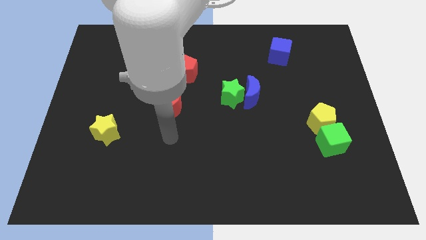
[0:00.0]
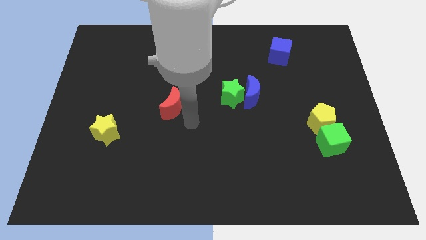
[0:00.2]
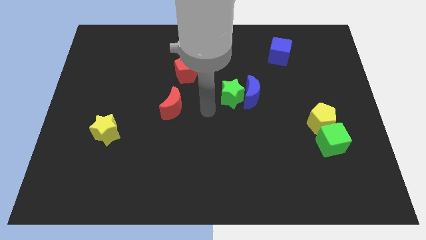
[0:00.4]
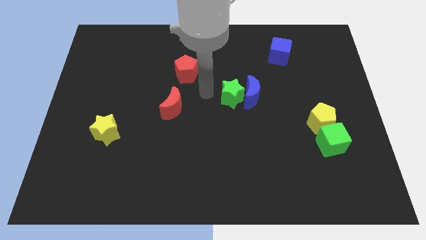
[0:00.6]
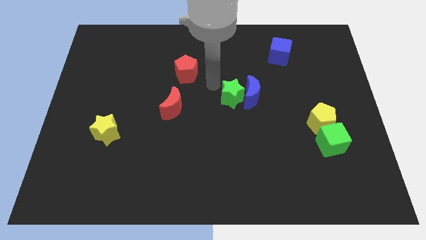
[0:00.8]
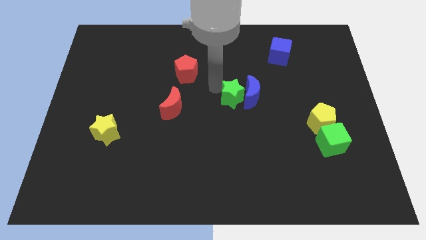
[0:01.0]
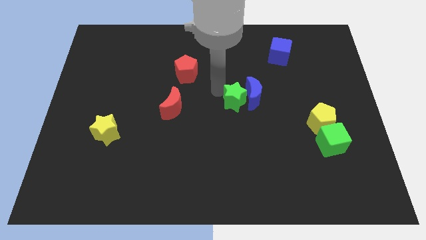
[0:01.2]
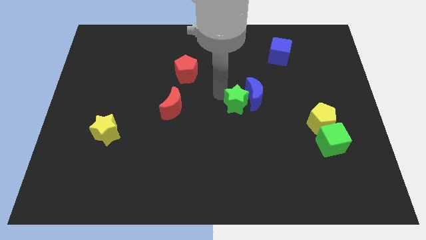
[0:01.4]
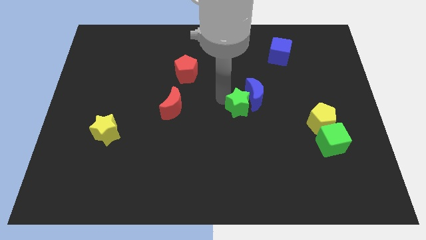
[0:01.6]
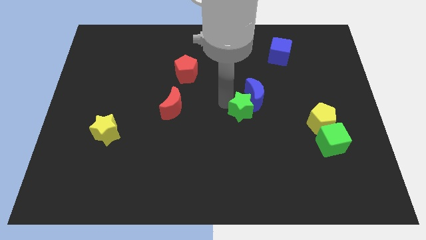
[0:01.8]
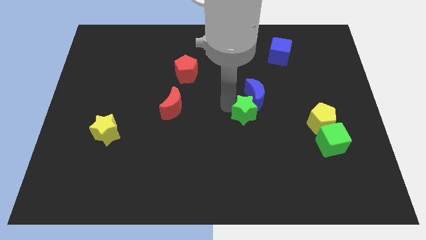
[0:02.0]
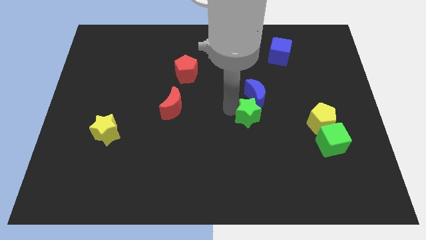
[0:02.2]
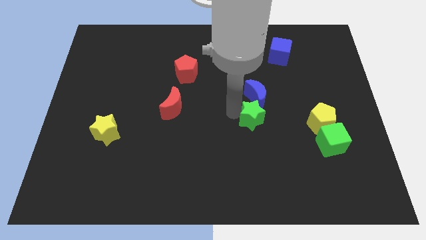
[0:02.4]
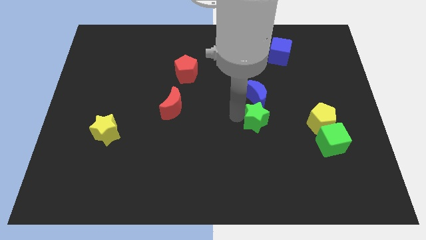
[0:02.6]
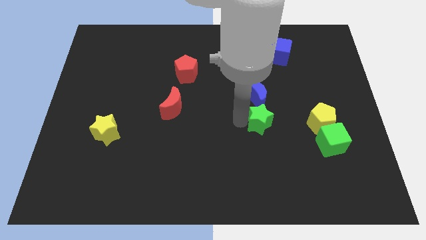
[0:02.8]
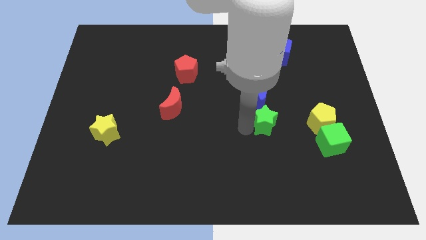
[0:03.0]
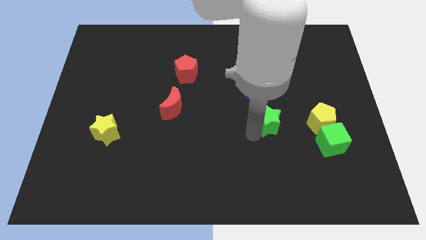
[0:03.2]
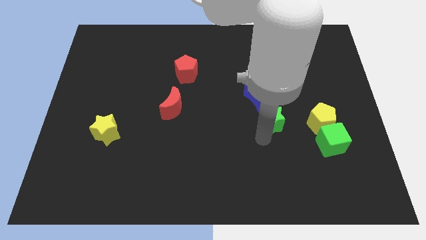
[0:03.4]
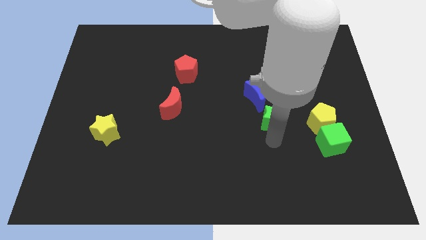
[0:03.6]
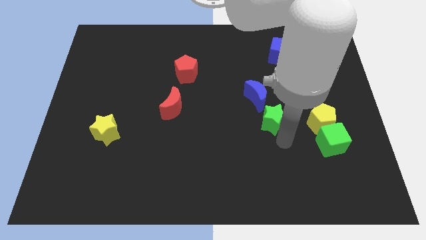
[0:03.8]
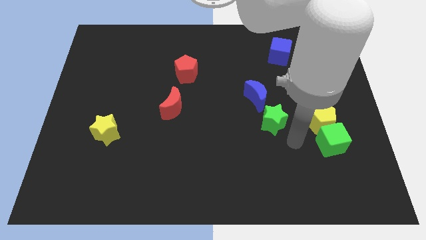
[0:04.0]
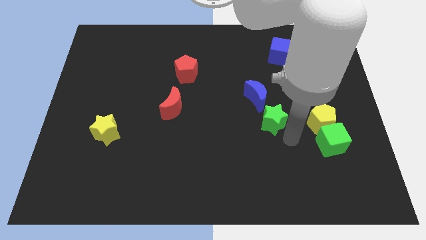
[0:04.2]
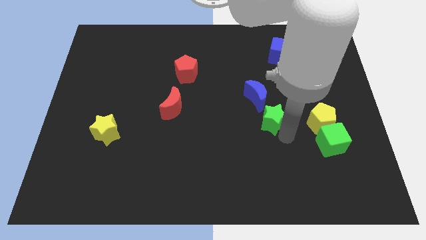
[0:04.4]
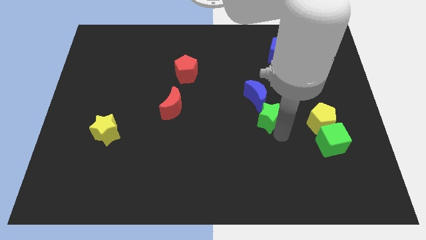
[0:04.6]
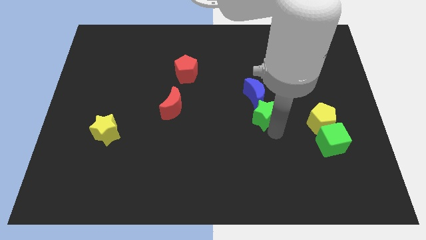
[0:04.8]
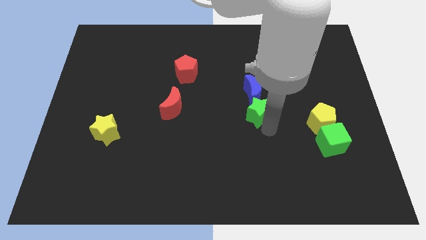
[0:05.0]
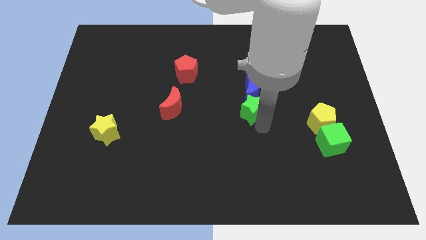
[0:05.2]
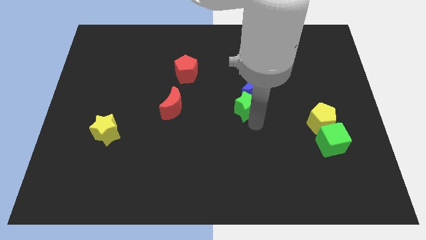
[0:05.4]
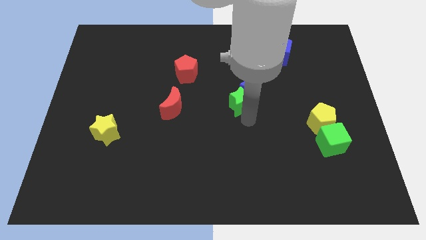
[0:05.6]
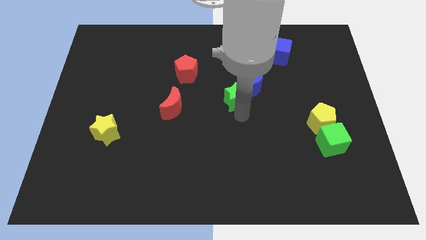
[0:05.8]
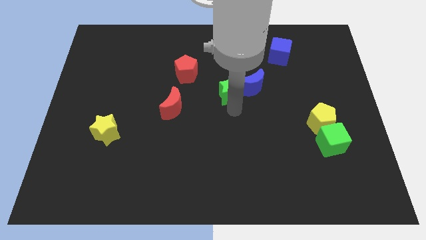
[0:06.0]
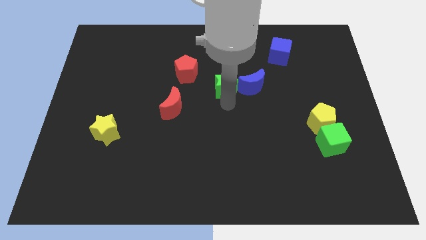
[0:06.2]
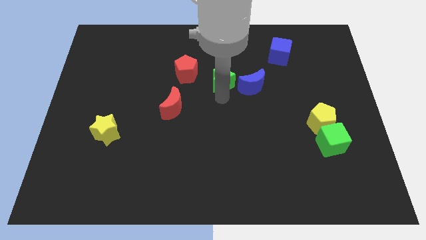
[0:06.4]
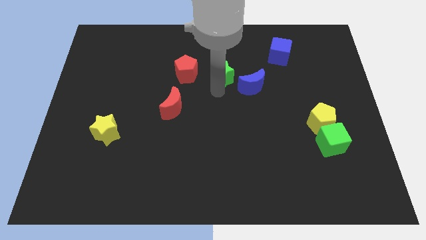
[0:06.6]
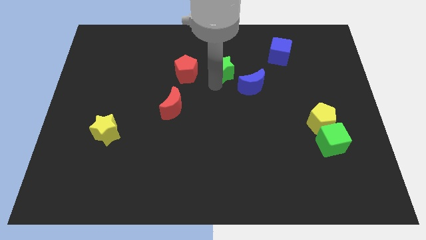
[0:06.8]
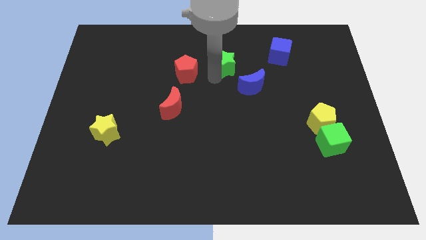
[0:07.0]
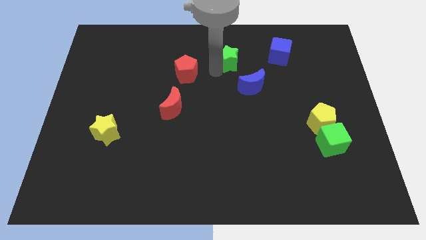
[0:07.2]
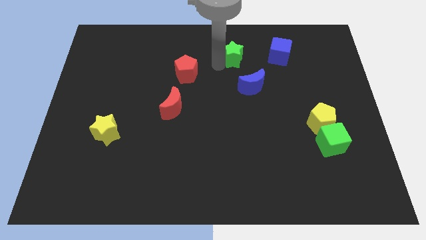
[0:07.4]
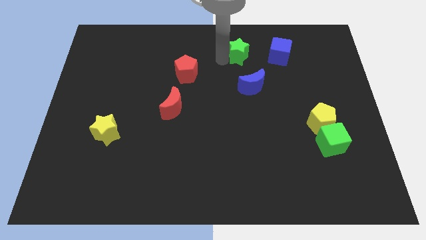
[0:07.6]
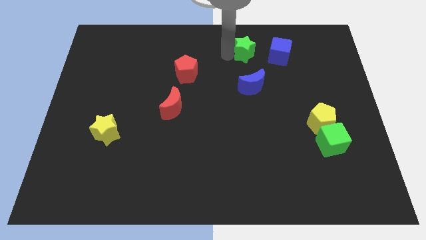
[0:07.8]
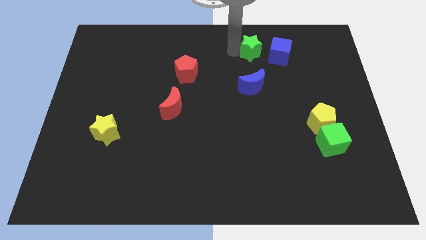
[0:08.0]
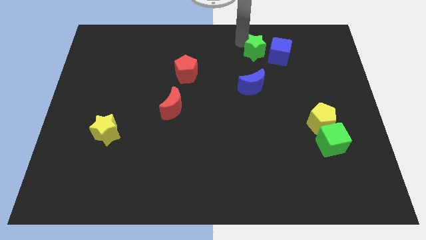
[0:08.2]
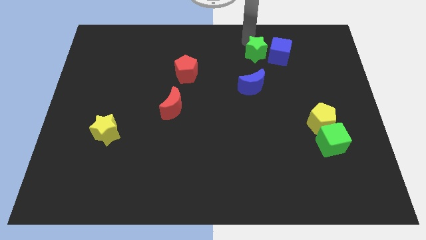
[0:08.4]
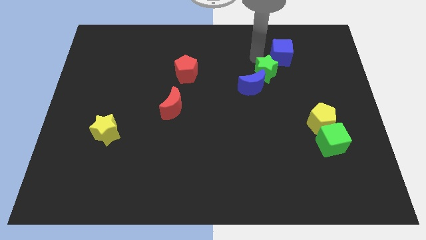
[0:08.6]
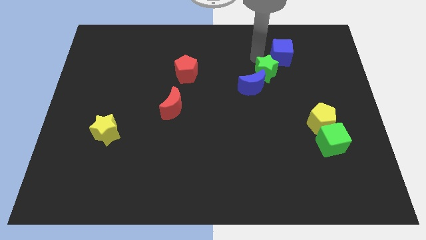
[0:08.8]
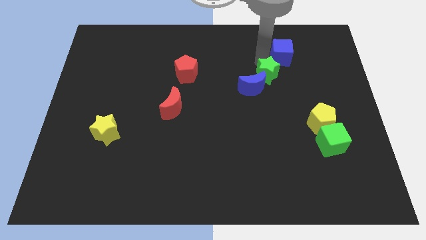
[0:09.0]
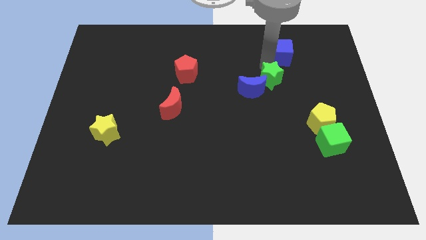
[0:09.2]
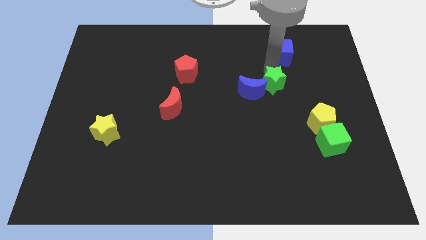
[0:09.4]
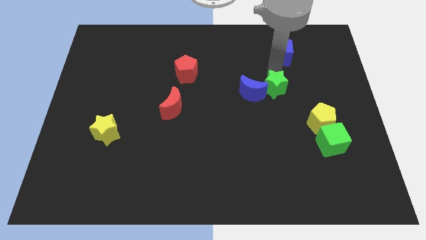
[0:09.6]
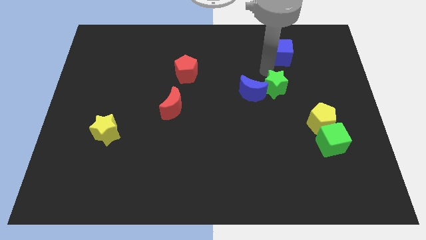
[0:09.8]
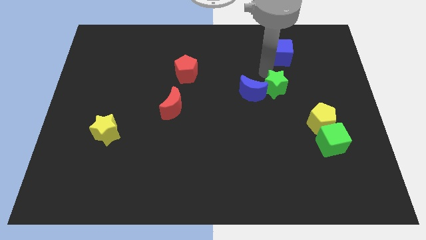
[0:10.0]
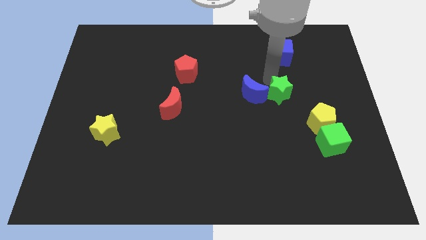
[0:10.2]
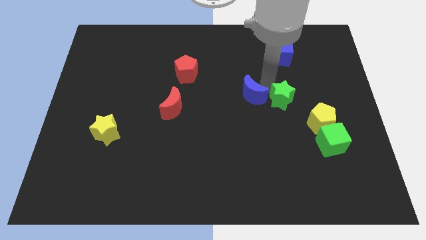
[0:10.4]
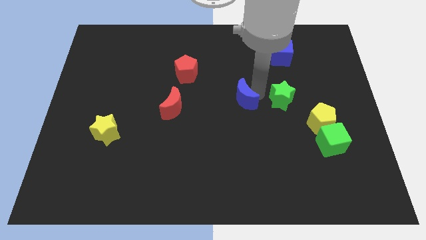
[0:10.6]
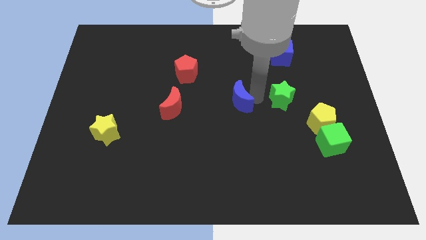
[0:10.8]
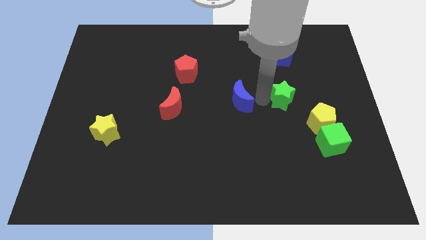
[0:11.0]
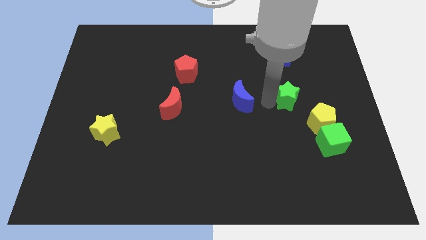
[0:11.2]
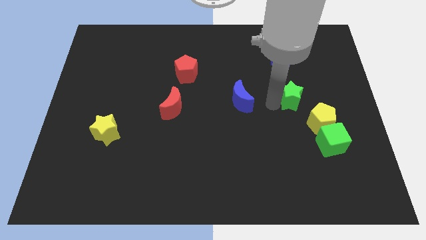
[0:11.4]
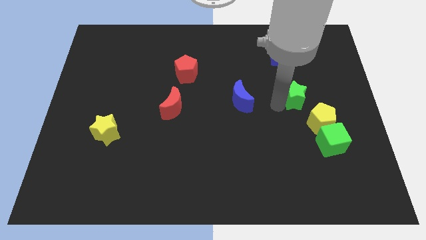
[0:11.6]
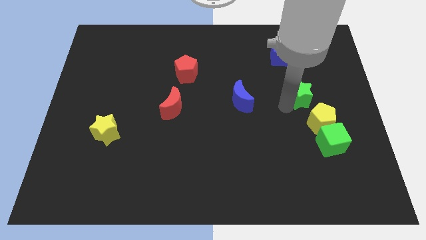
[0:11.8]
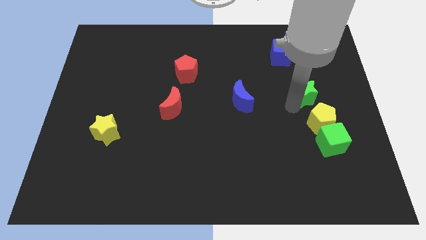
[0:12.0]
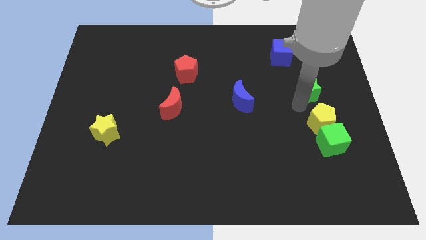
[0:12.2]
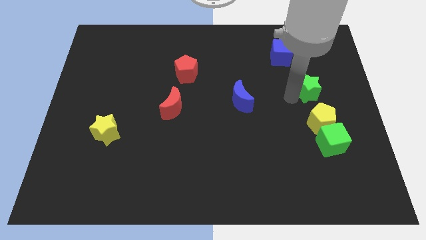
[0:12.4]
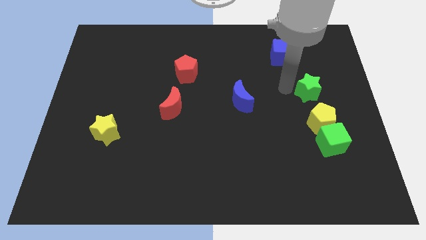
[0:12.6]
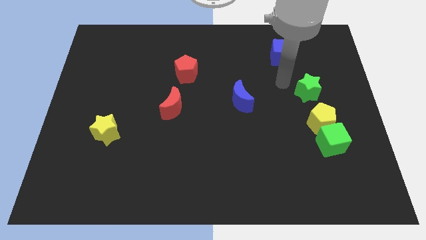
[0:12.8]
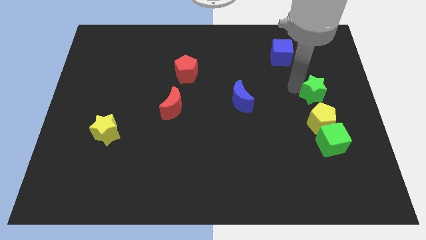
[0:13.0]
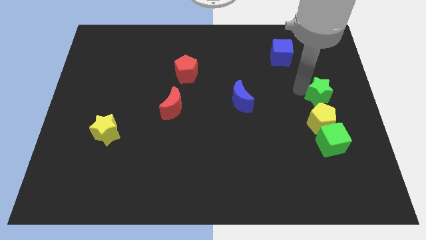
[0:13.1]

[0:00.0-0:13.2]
put the green star to the right side

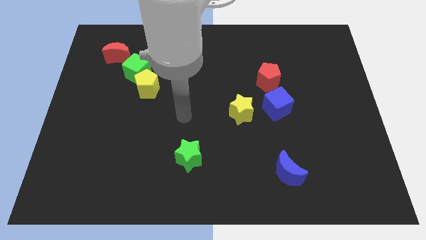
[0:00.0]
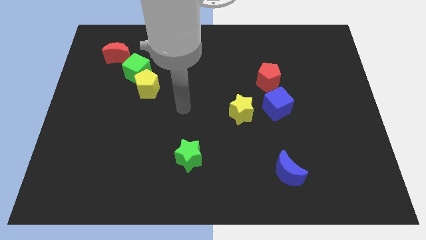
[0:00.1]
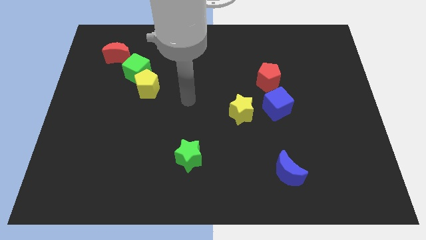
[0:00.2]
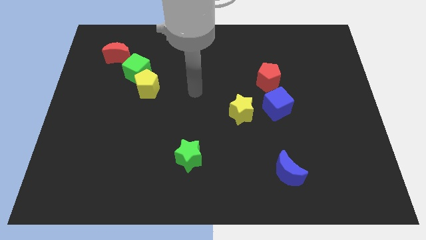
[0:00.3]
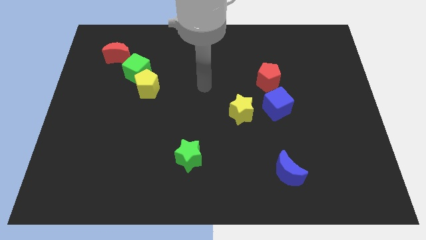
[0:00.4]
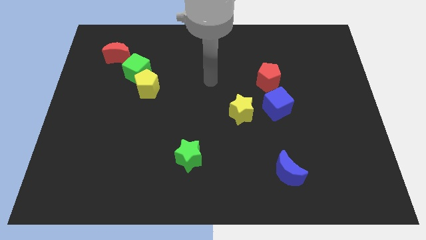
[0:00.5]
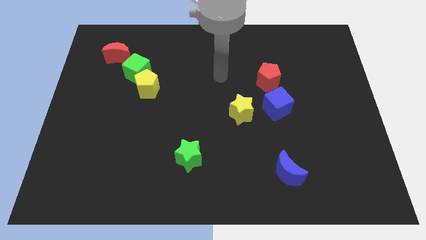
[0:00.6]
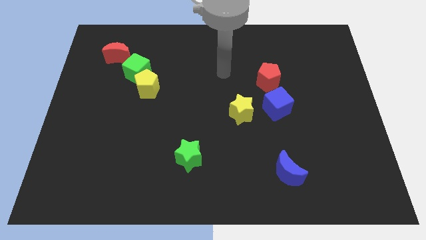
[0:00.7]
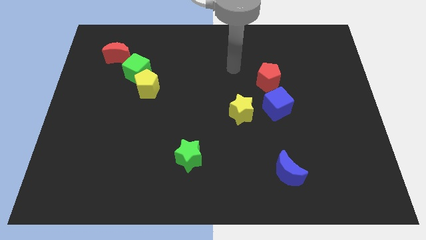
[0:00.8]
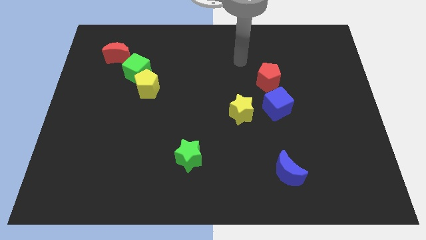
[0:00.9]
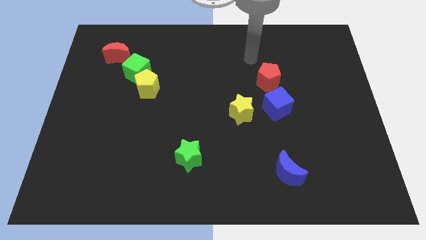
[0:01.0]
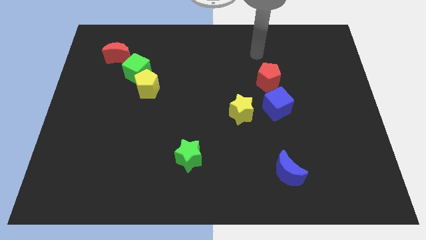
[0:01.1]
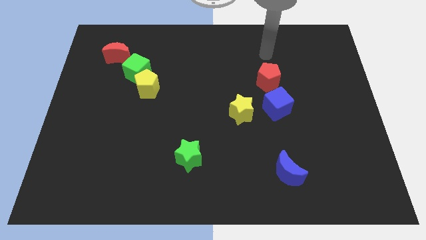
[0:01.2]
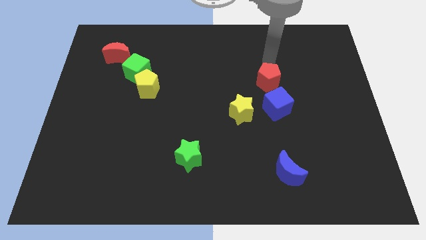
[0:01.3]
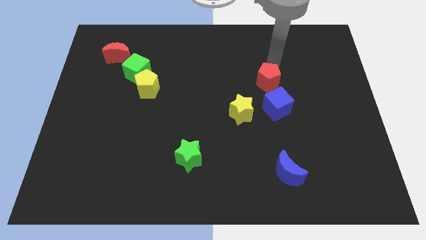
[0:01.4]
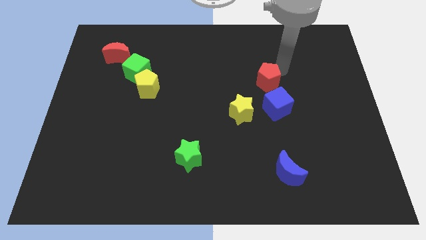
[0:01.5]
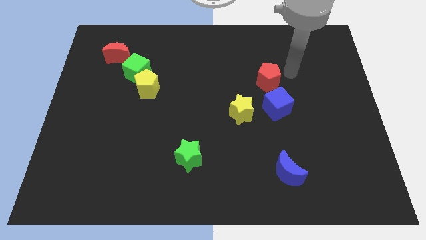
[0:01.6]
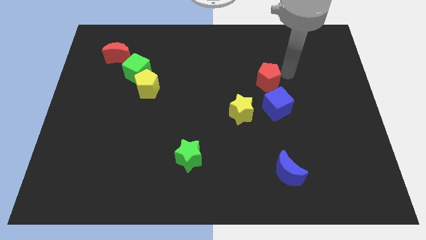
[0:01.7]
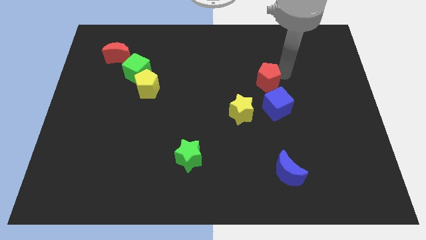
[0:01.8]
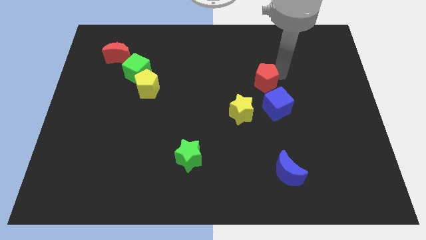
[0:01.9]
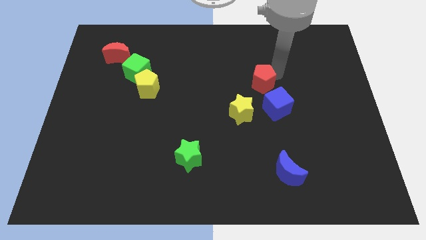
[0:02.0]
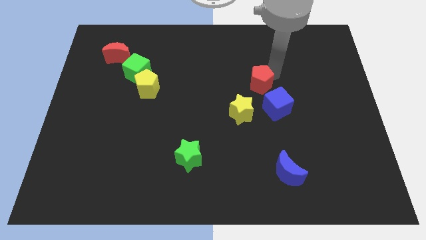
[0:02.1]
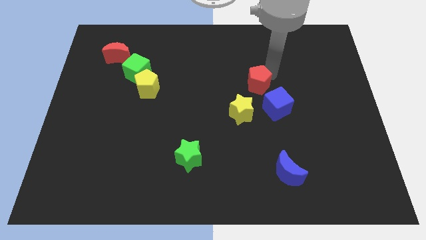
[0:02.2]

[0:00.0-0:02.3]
put the red pentagon to the center
